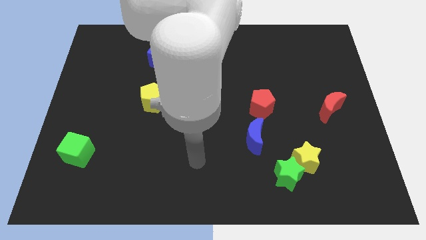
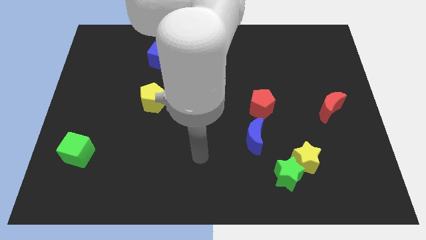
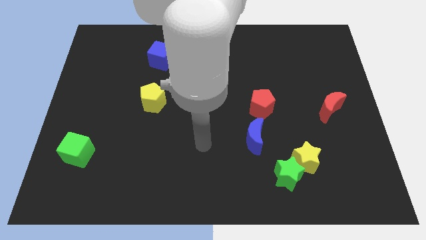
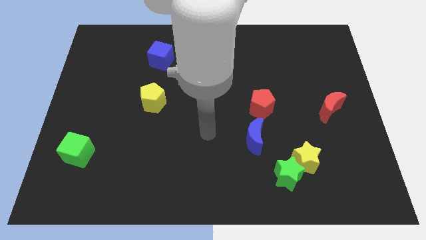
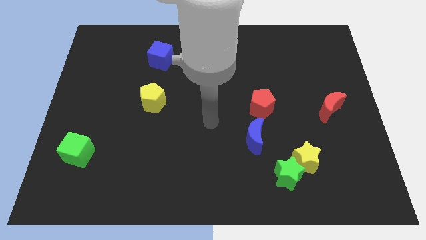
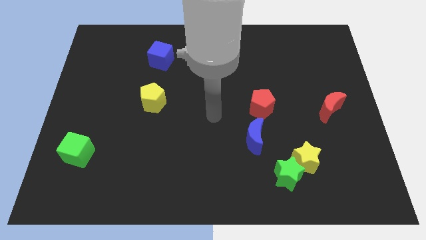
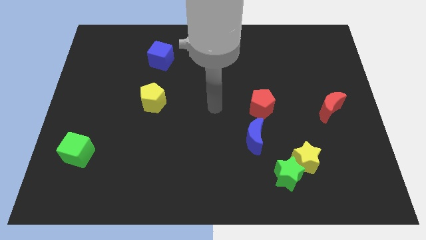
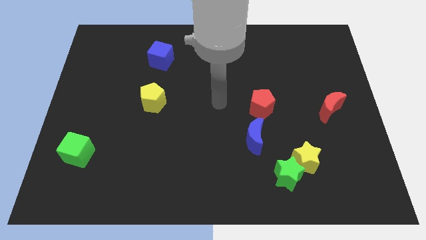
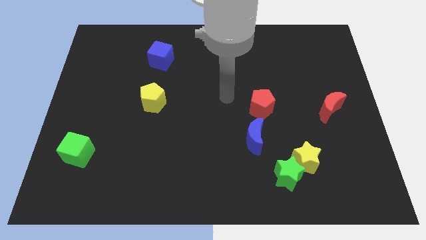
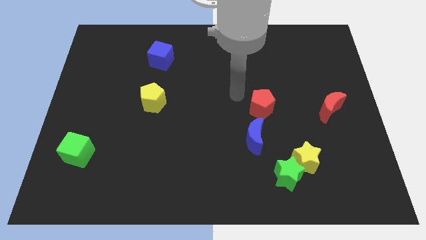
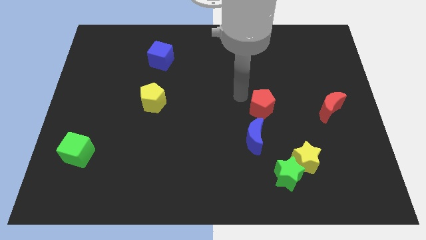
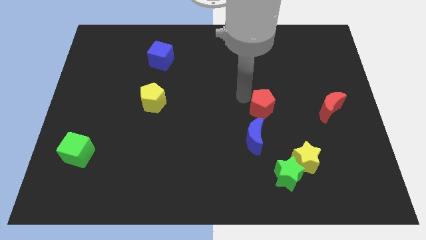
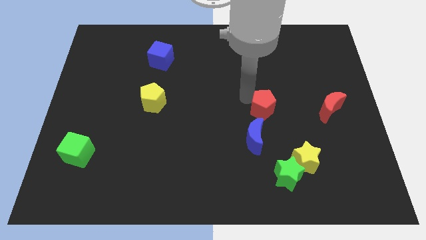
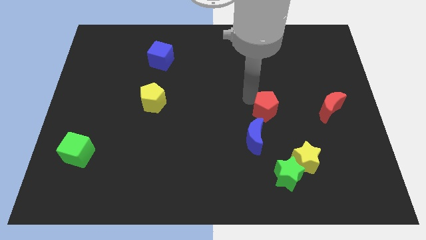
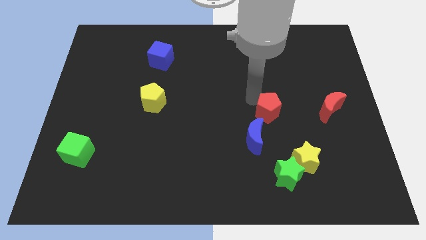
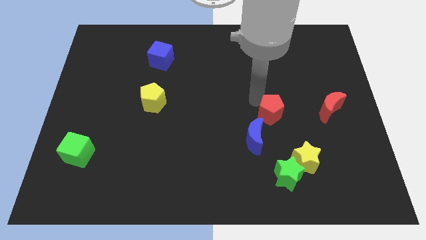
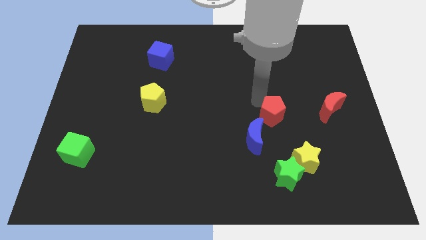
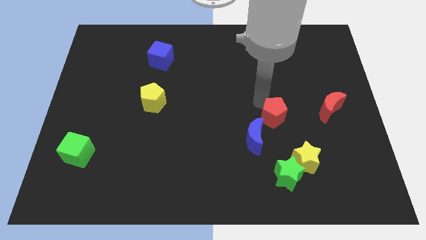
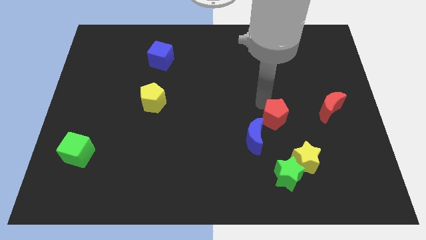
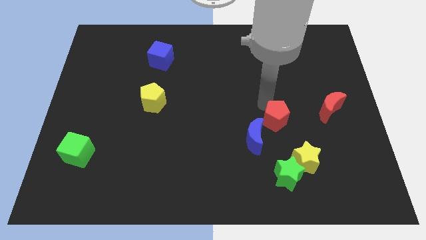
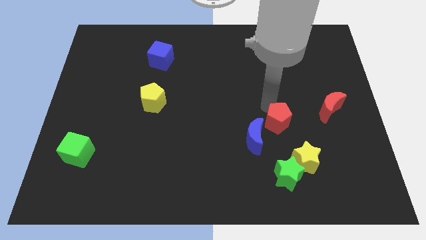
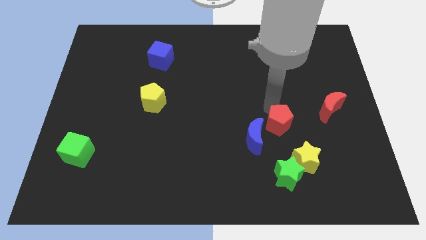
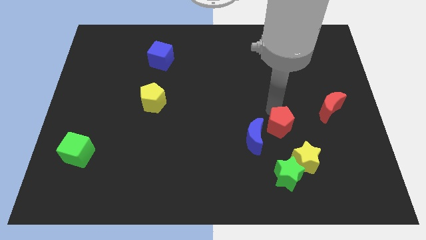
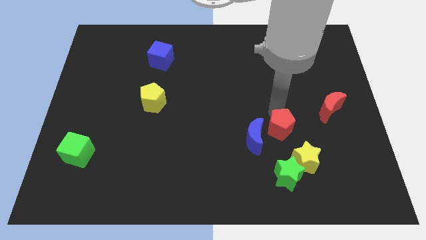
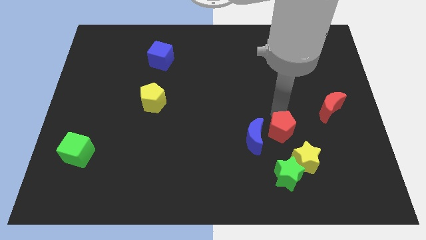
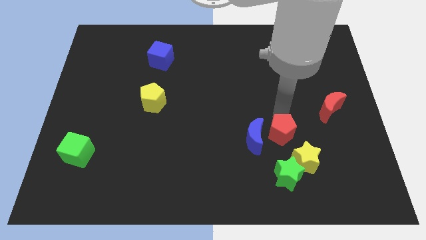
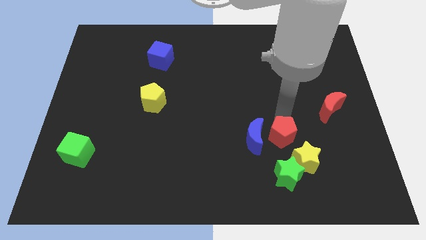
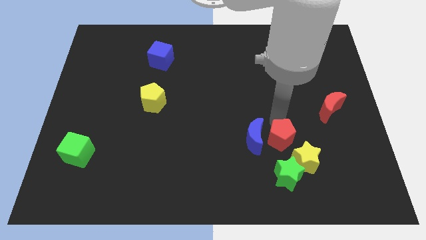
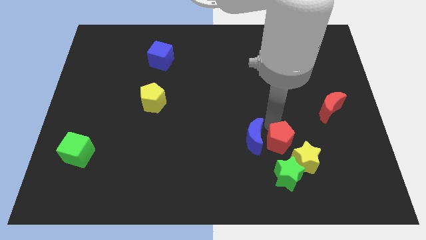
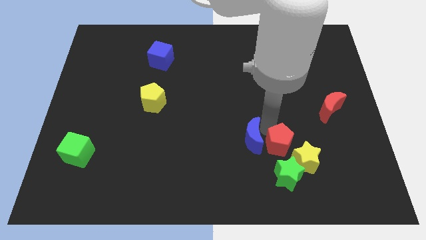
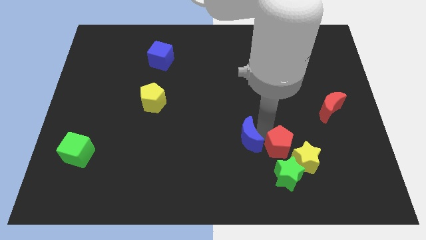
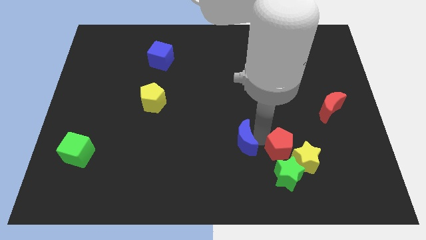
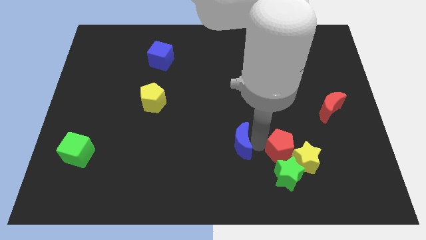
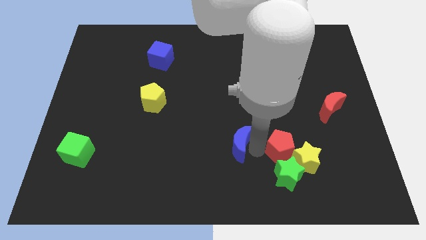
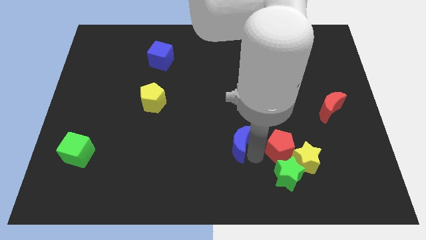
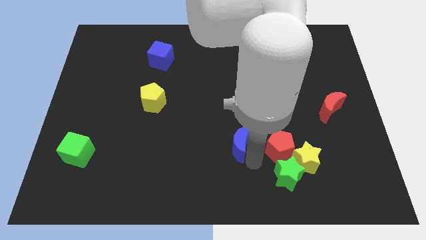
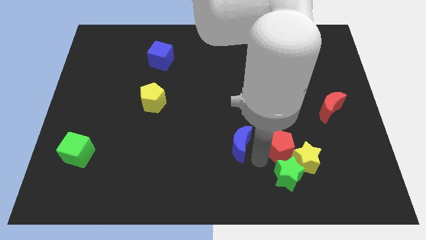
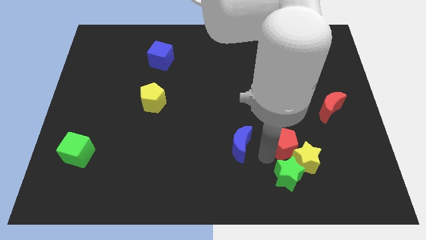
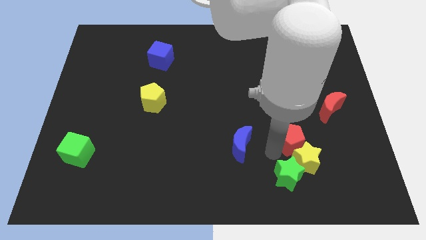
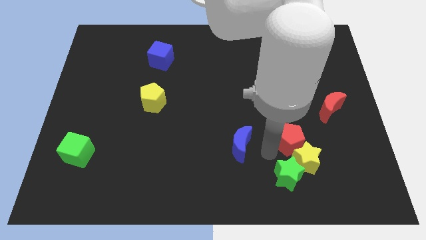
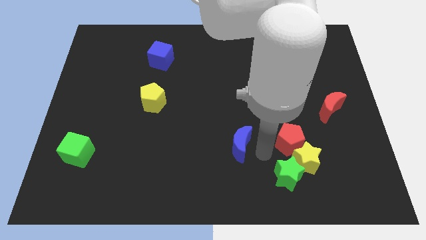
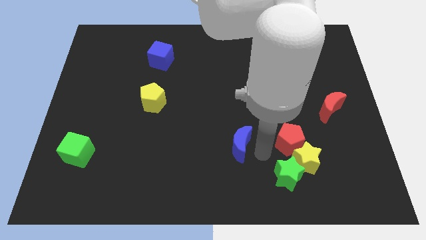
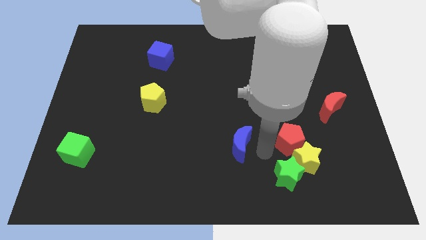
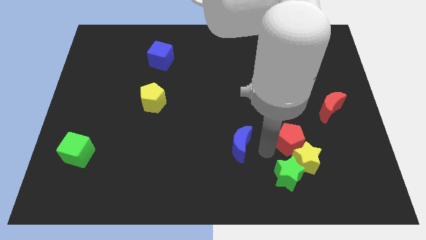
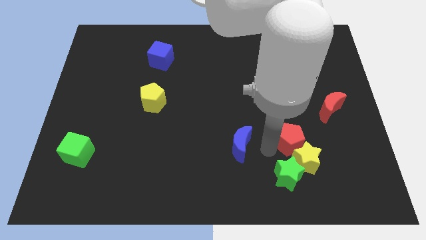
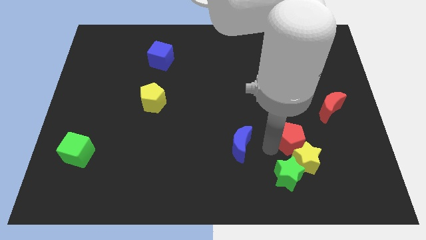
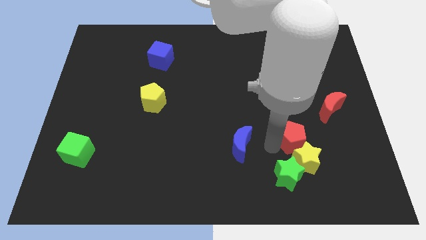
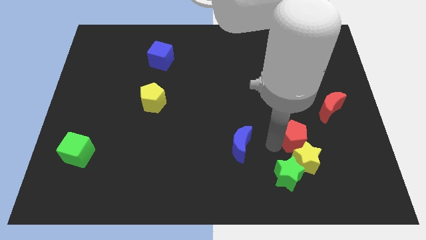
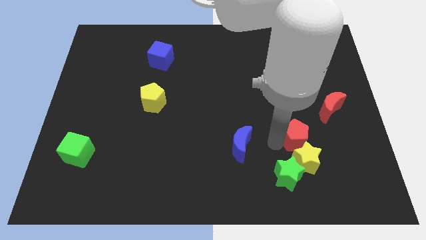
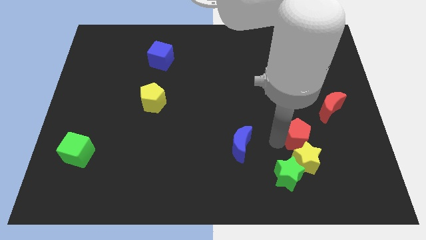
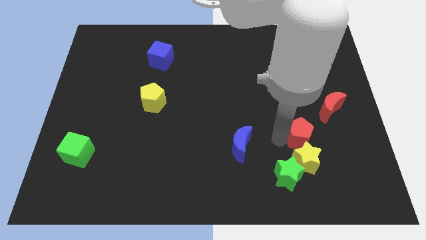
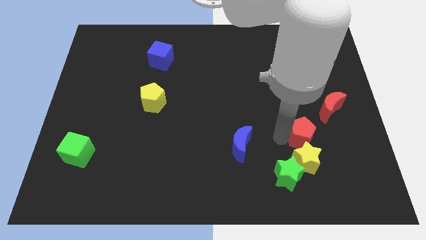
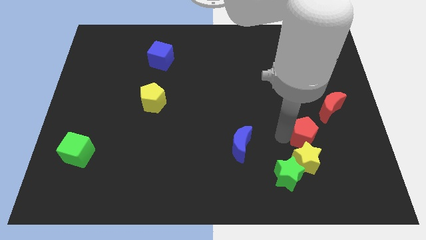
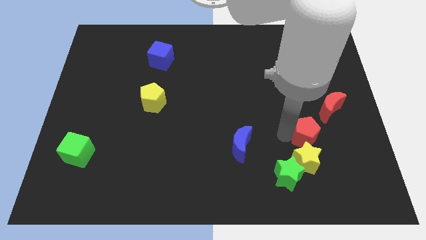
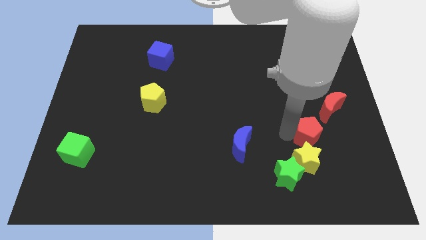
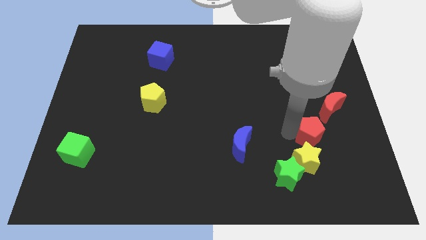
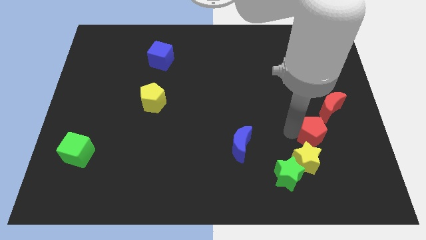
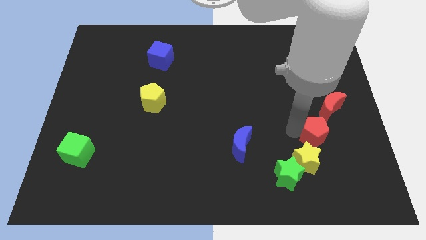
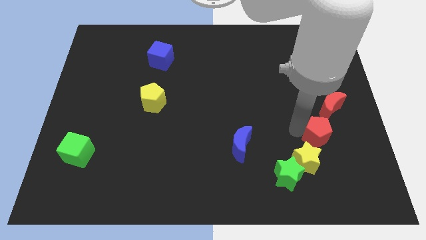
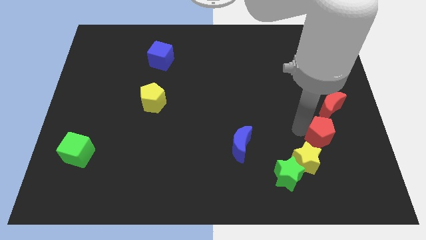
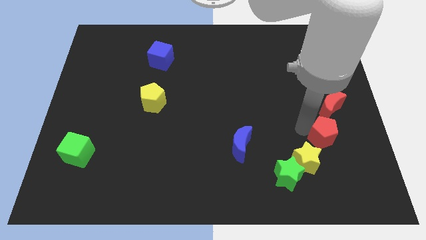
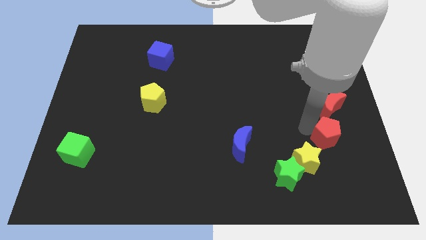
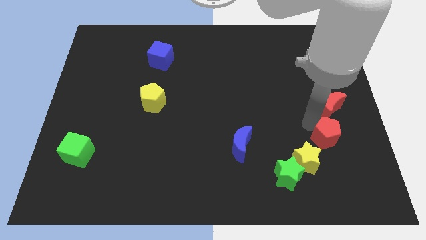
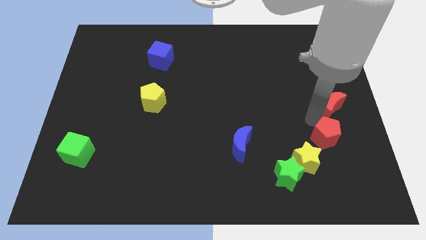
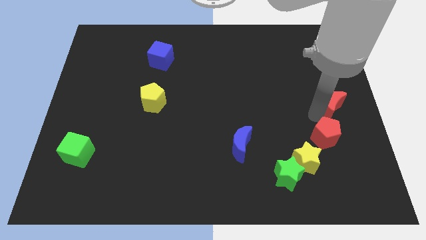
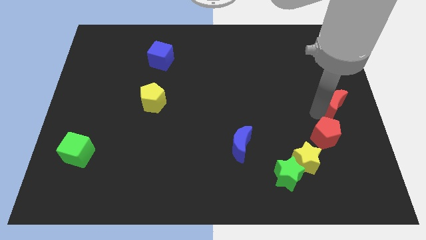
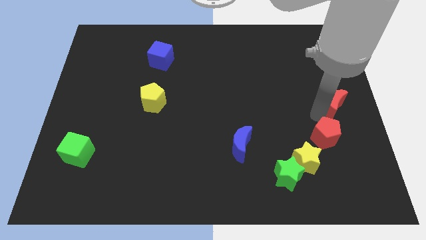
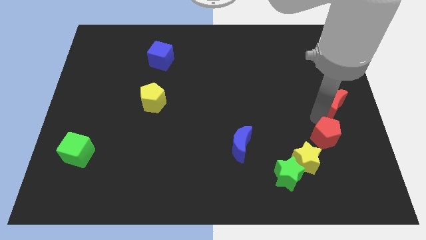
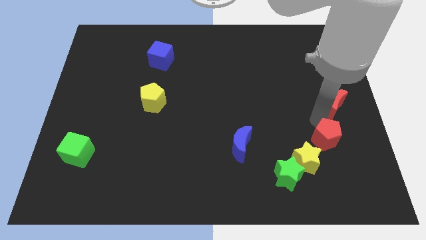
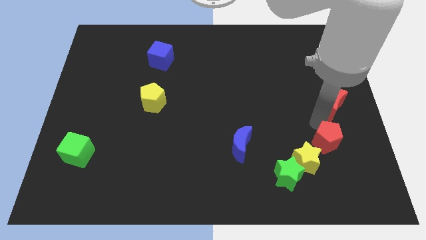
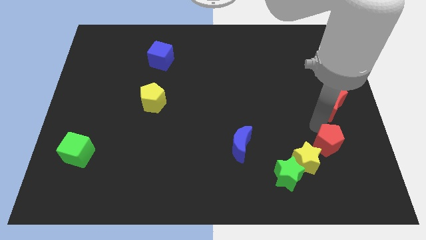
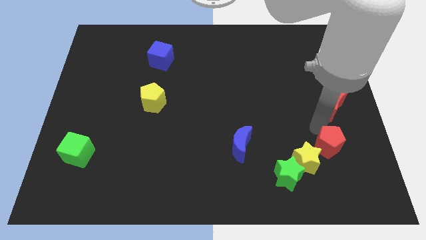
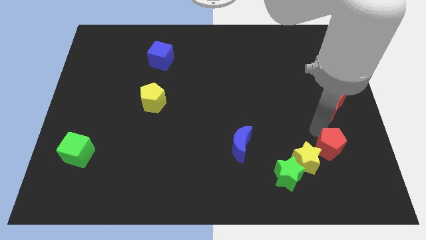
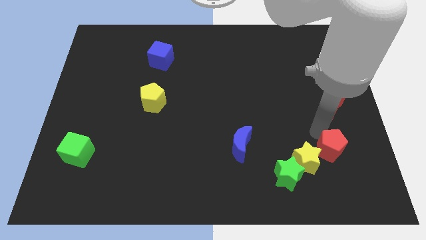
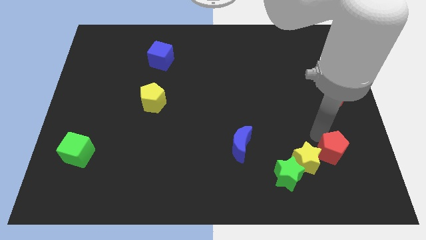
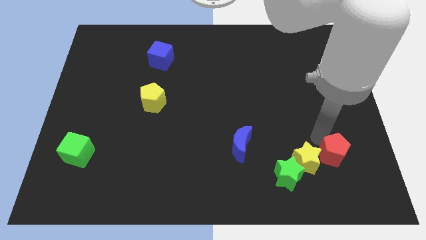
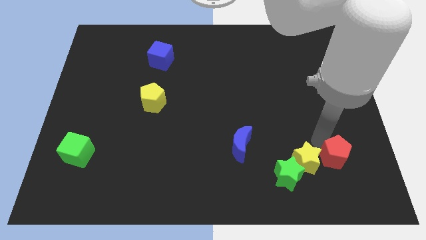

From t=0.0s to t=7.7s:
slide the red pentagon to the right side of the green star
